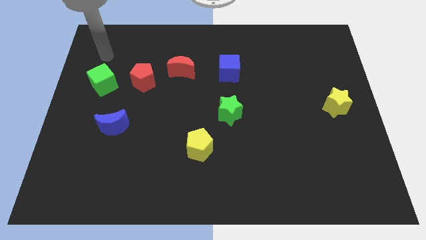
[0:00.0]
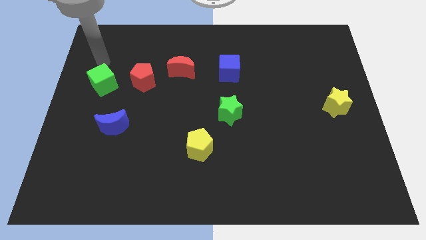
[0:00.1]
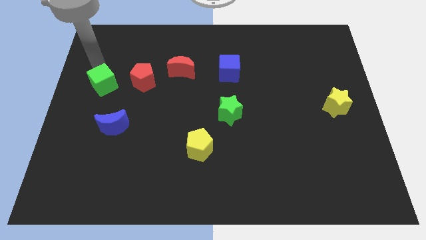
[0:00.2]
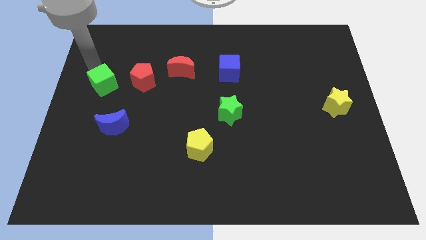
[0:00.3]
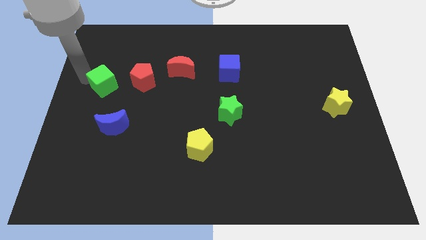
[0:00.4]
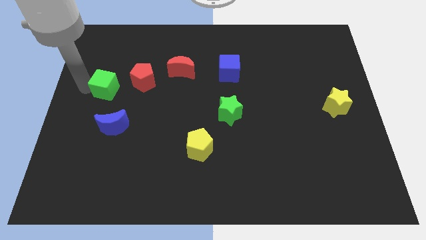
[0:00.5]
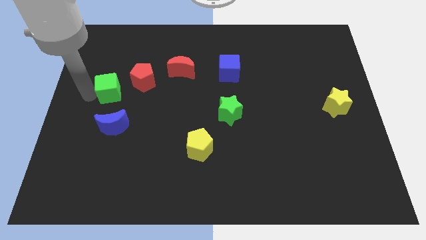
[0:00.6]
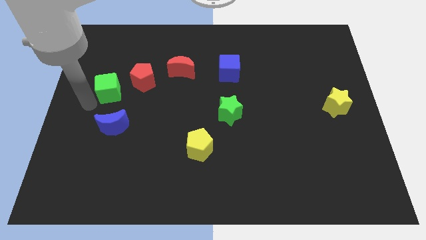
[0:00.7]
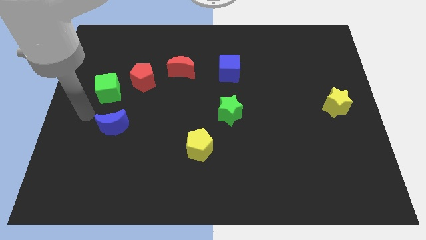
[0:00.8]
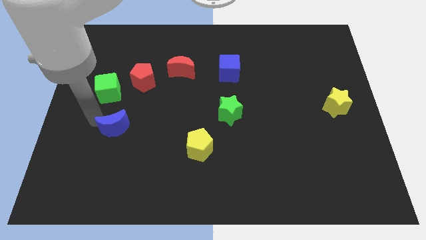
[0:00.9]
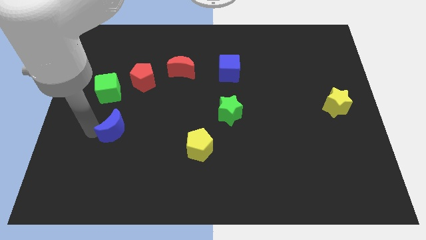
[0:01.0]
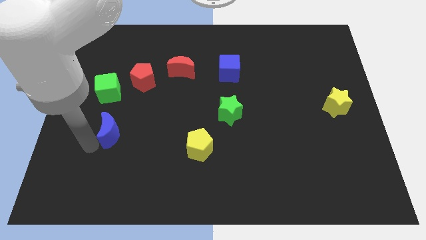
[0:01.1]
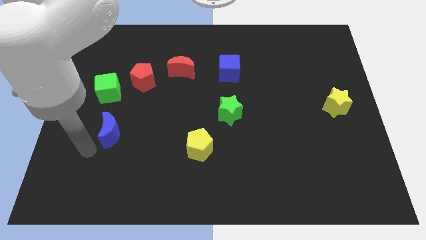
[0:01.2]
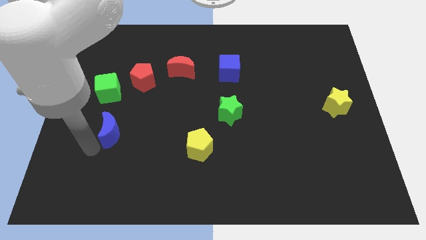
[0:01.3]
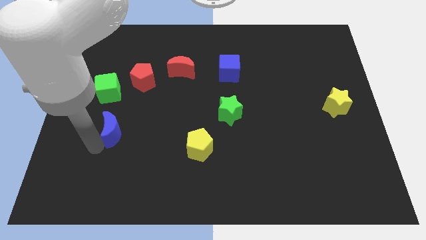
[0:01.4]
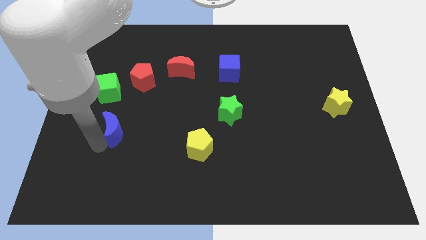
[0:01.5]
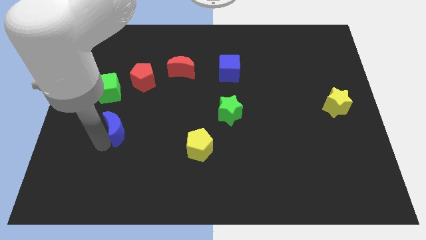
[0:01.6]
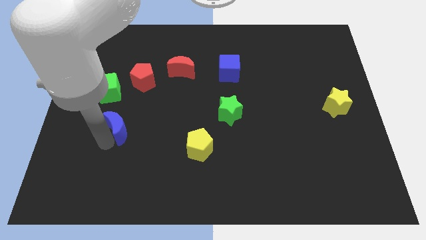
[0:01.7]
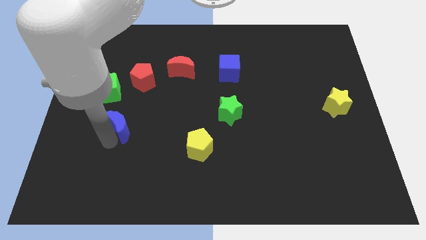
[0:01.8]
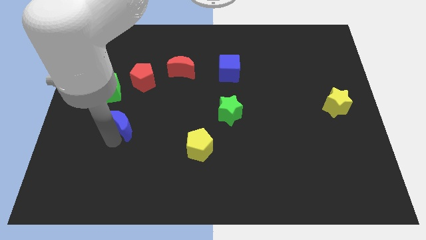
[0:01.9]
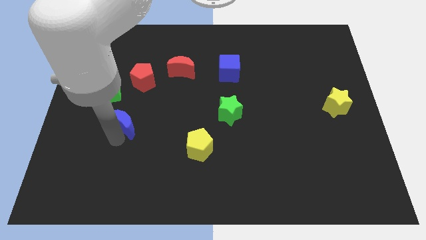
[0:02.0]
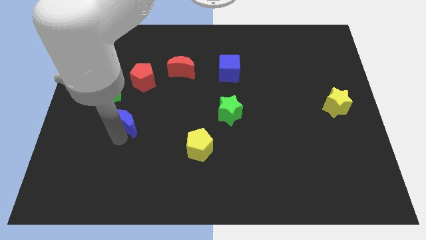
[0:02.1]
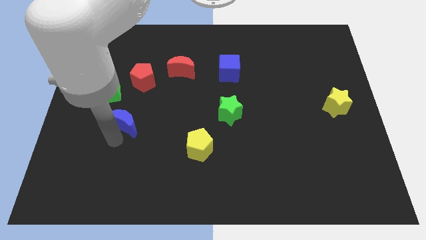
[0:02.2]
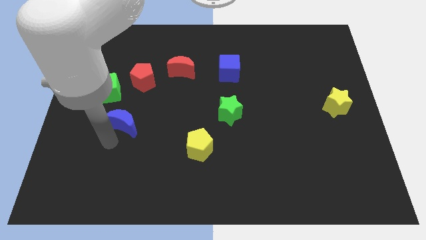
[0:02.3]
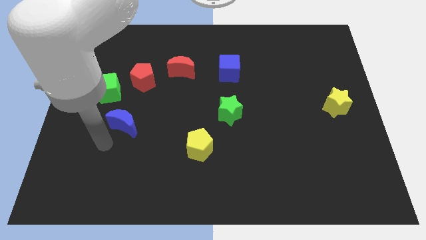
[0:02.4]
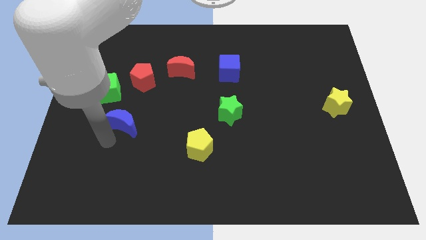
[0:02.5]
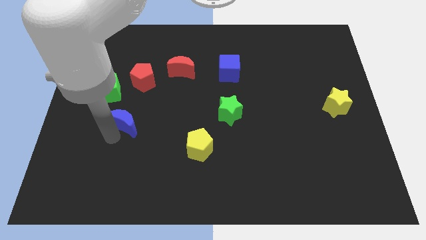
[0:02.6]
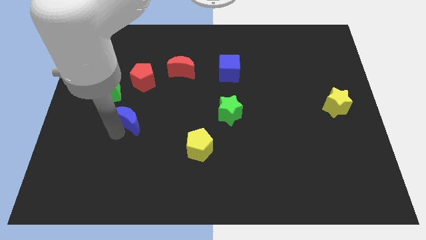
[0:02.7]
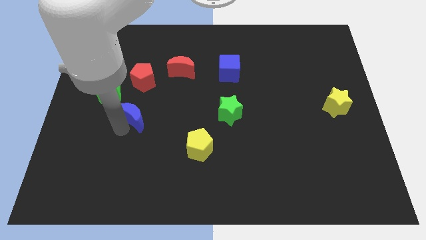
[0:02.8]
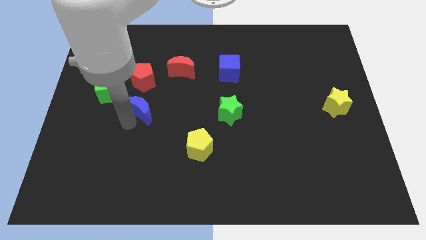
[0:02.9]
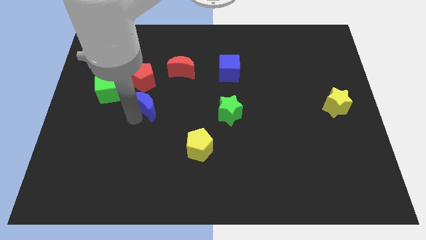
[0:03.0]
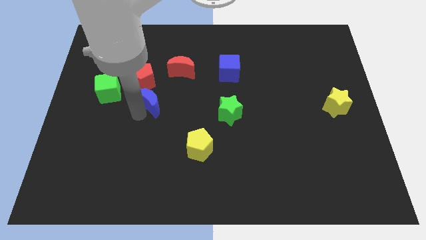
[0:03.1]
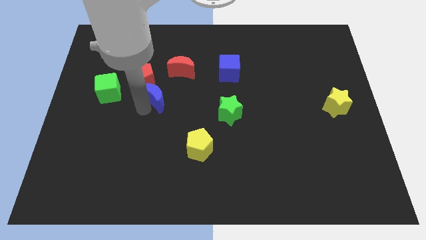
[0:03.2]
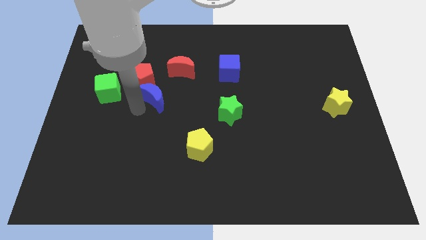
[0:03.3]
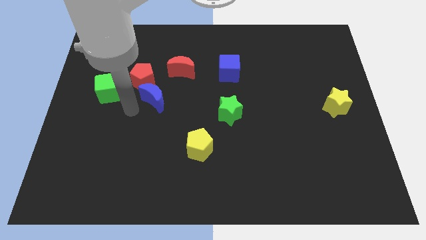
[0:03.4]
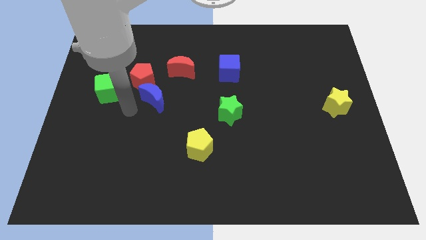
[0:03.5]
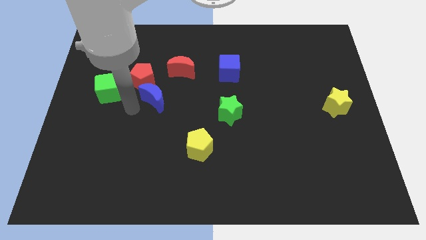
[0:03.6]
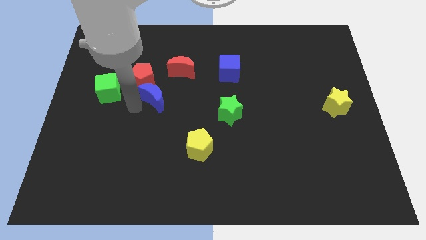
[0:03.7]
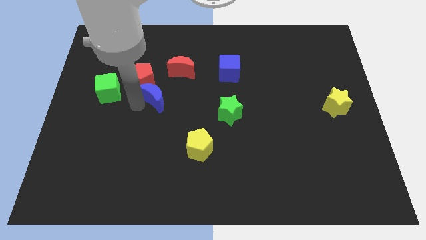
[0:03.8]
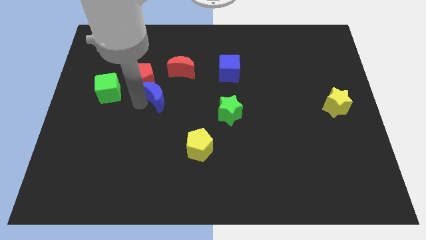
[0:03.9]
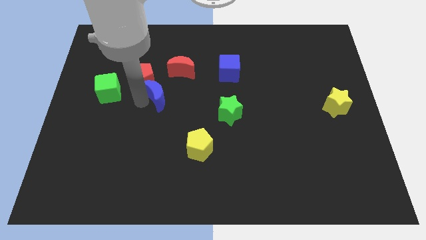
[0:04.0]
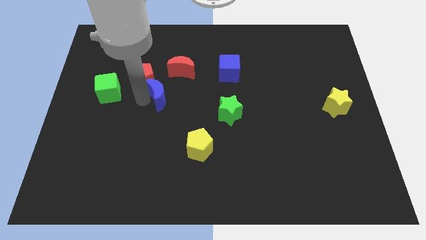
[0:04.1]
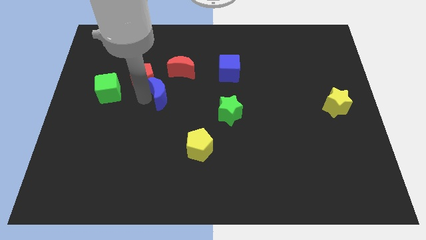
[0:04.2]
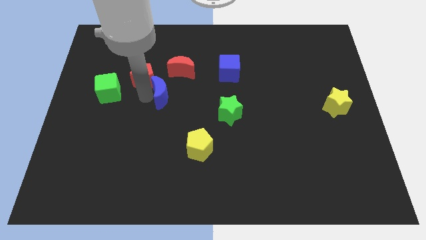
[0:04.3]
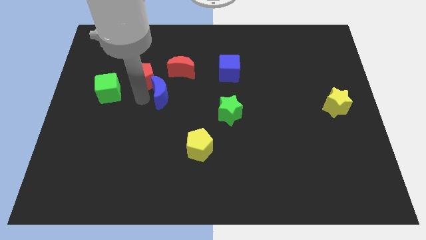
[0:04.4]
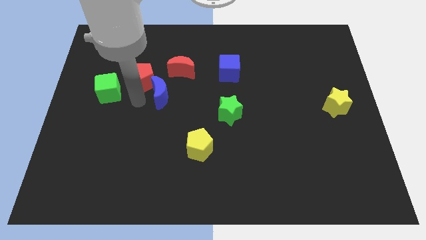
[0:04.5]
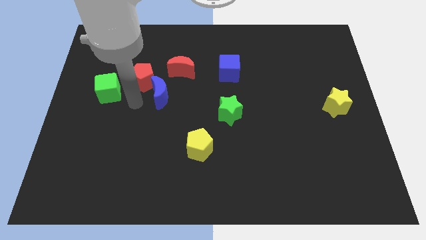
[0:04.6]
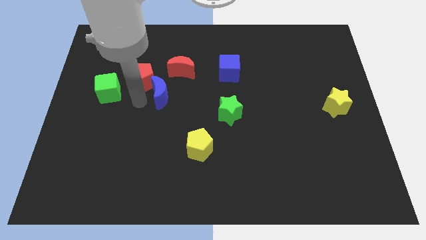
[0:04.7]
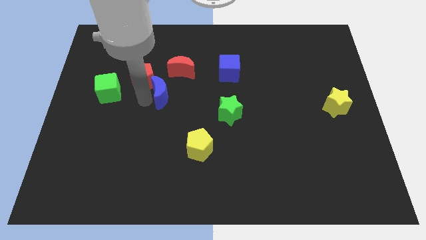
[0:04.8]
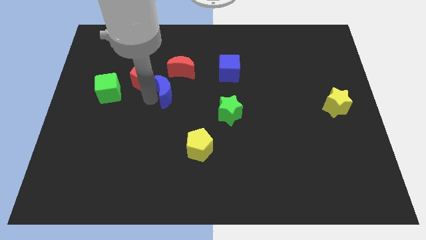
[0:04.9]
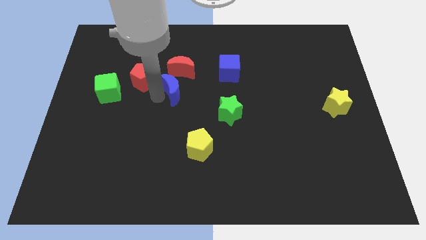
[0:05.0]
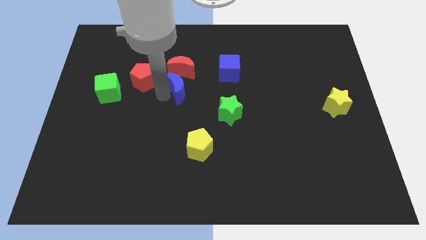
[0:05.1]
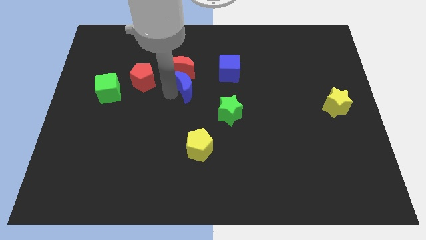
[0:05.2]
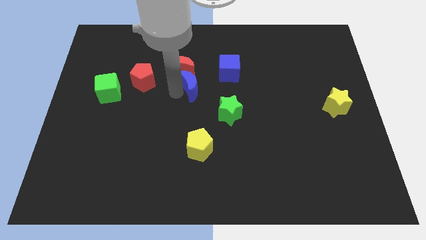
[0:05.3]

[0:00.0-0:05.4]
push the blue moon upwards and right

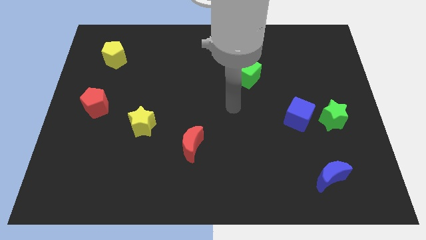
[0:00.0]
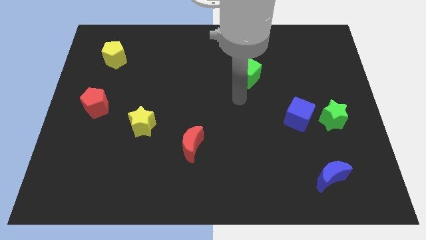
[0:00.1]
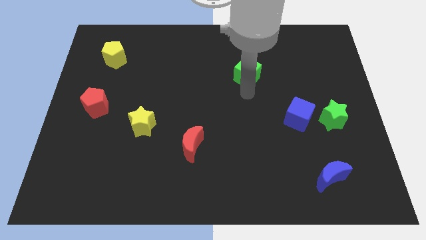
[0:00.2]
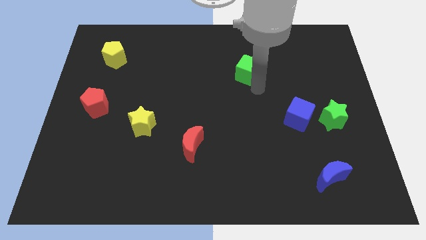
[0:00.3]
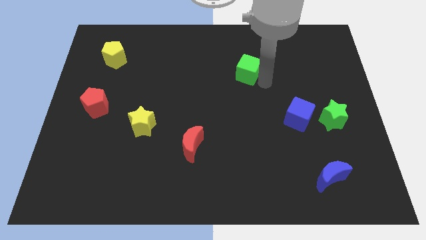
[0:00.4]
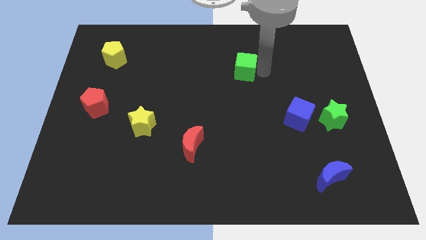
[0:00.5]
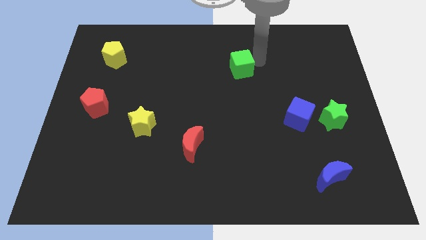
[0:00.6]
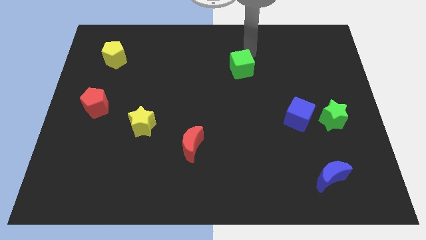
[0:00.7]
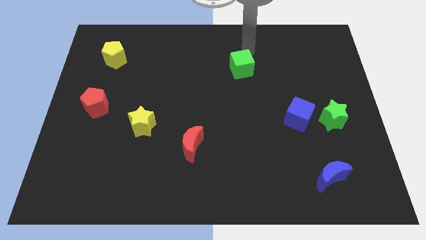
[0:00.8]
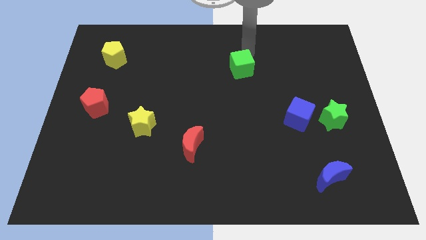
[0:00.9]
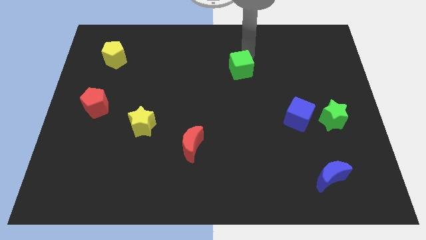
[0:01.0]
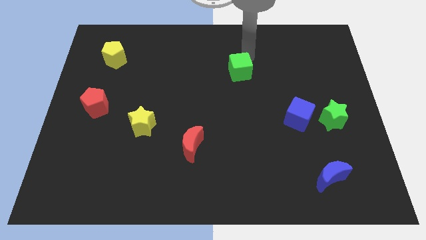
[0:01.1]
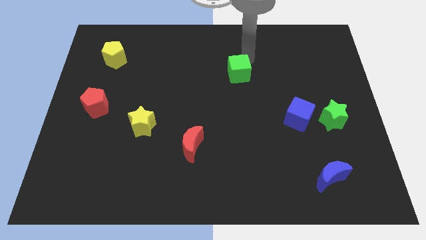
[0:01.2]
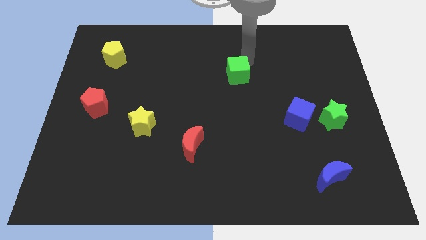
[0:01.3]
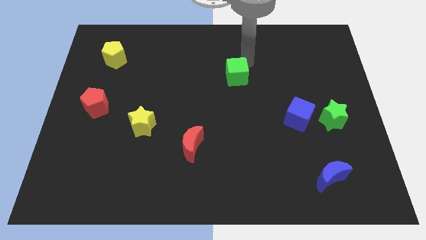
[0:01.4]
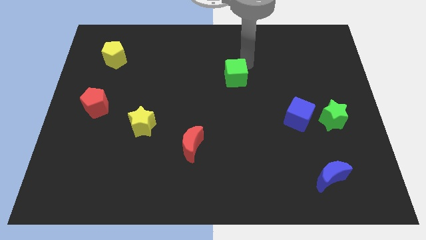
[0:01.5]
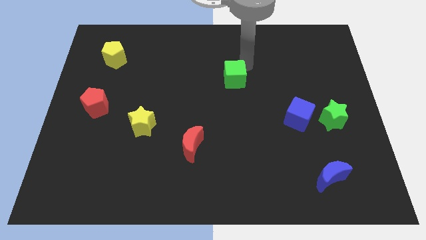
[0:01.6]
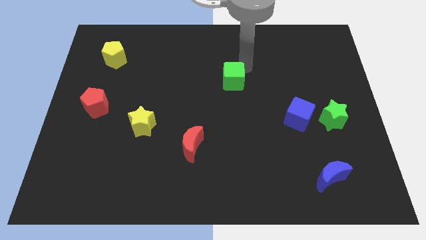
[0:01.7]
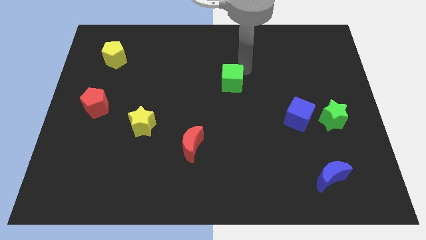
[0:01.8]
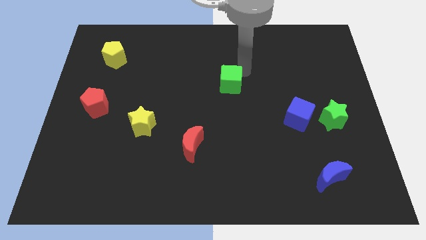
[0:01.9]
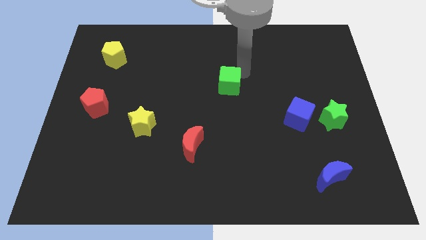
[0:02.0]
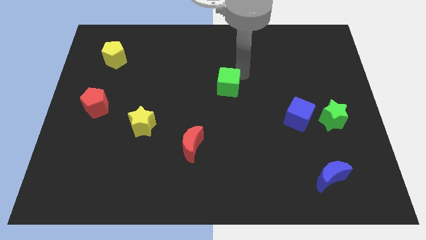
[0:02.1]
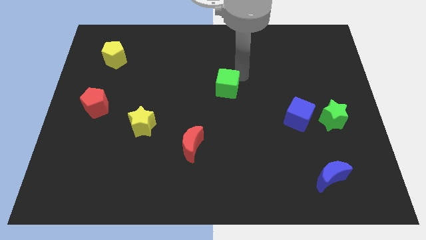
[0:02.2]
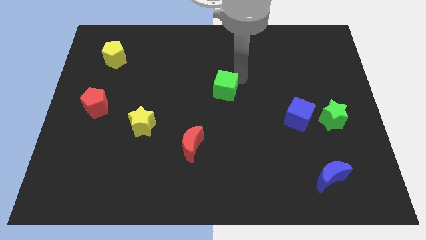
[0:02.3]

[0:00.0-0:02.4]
move the green cube somewhat downwards and left
